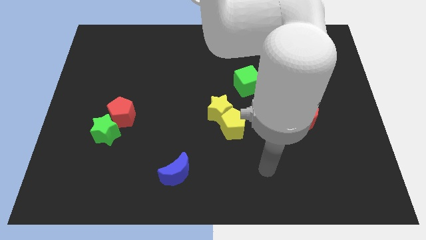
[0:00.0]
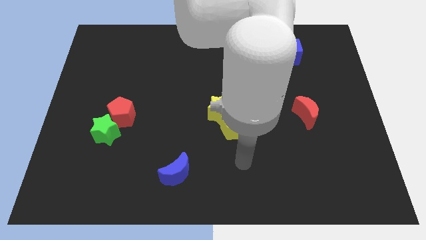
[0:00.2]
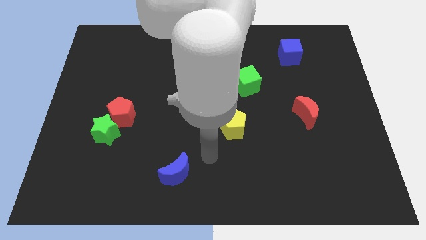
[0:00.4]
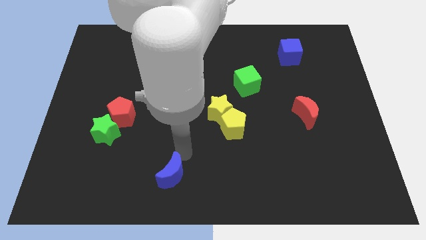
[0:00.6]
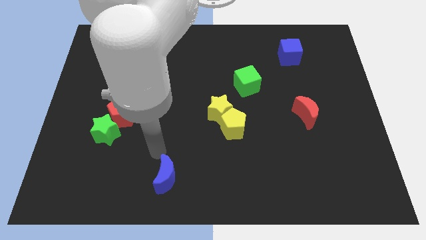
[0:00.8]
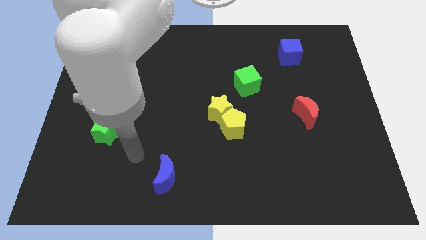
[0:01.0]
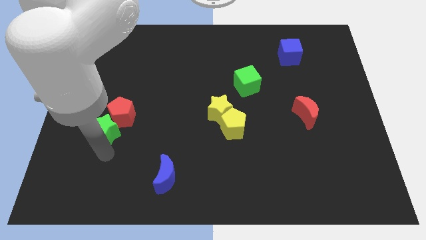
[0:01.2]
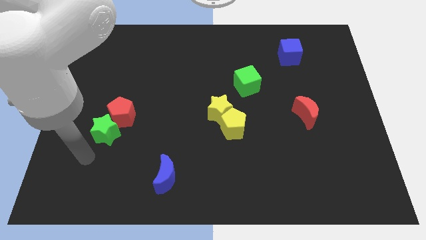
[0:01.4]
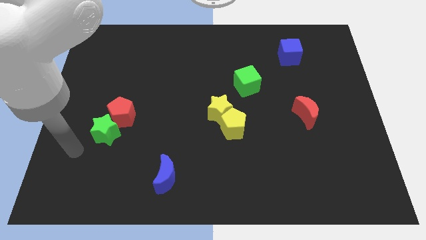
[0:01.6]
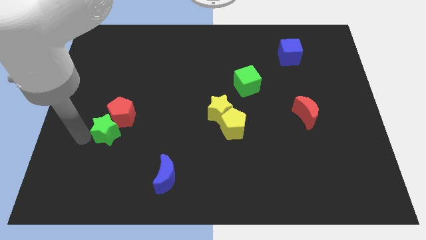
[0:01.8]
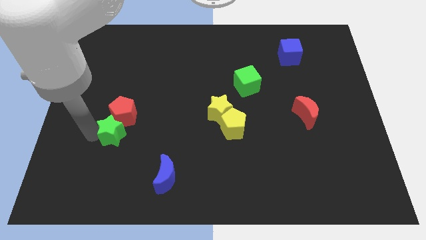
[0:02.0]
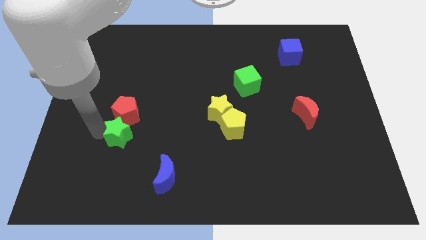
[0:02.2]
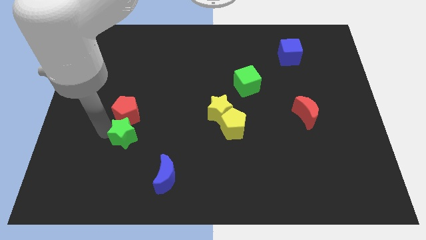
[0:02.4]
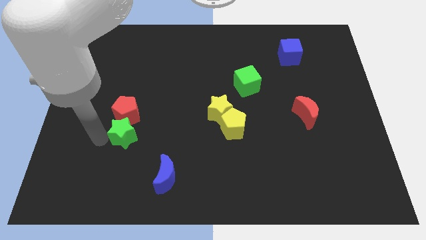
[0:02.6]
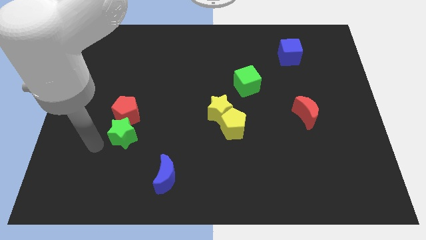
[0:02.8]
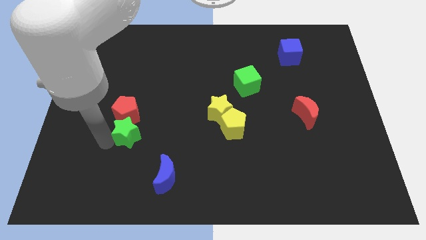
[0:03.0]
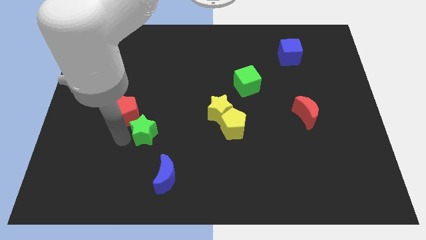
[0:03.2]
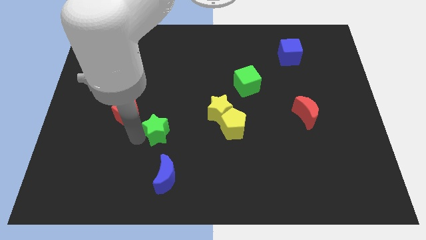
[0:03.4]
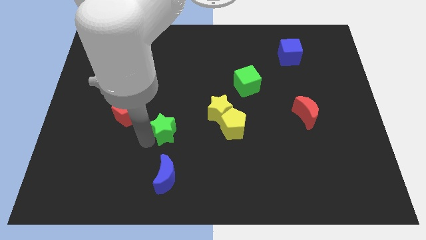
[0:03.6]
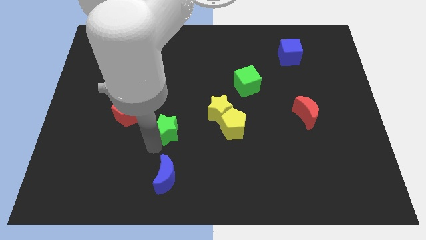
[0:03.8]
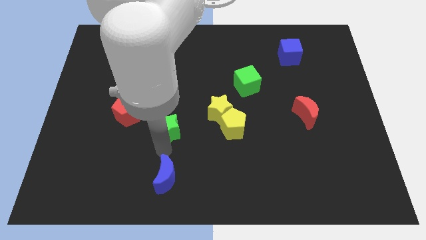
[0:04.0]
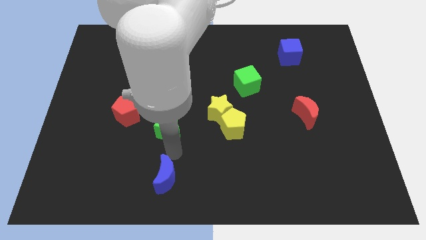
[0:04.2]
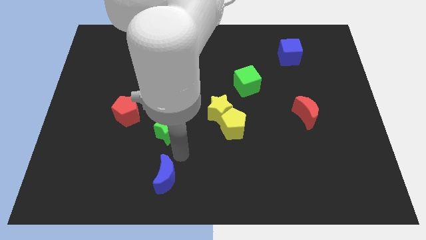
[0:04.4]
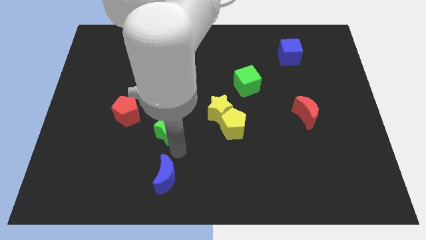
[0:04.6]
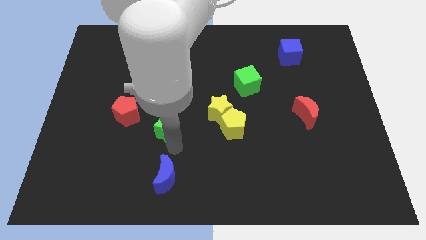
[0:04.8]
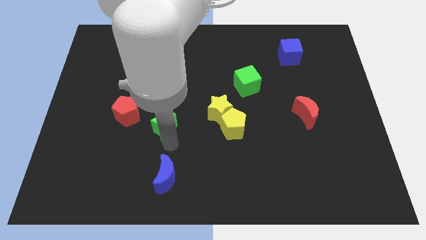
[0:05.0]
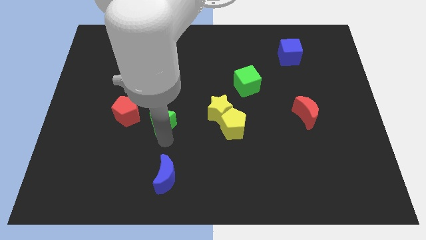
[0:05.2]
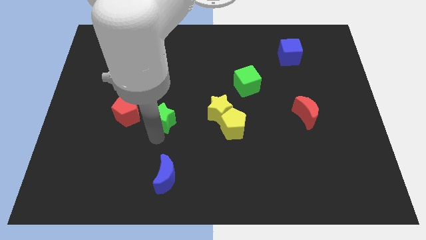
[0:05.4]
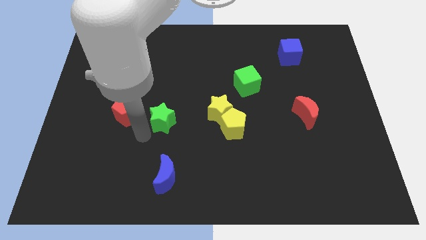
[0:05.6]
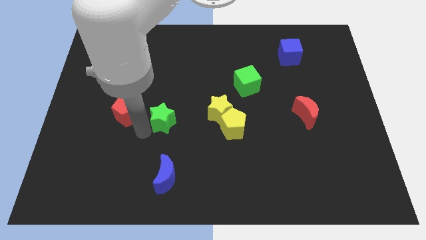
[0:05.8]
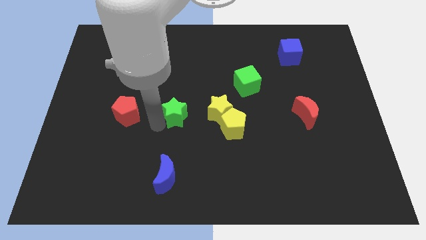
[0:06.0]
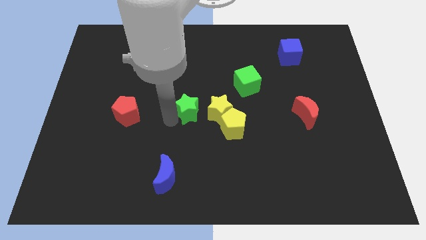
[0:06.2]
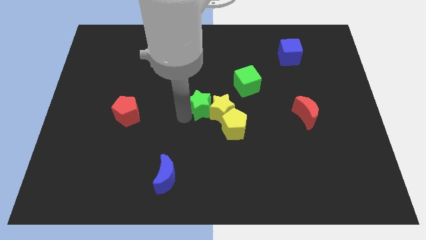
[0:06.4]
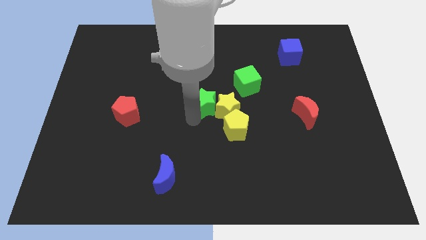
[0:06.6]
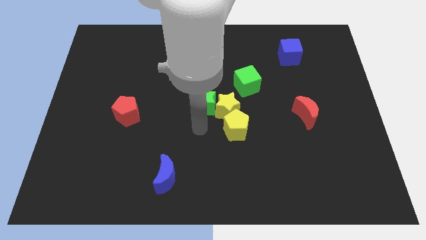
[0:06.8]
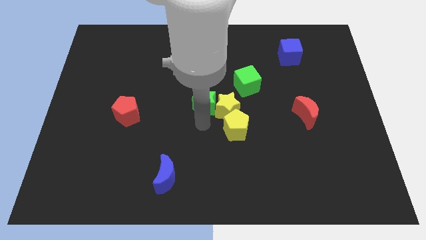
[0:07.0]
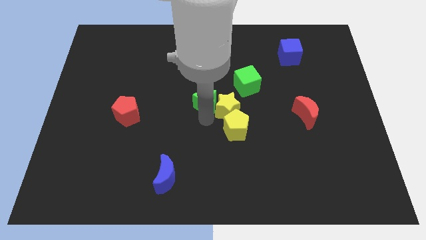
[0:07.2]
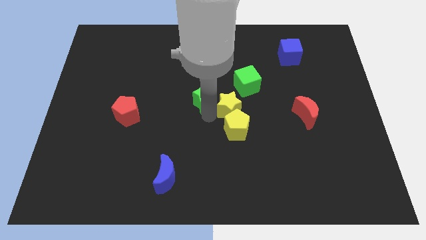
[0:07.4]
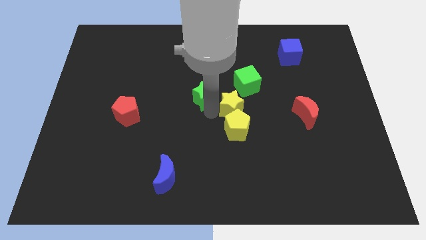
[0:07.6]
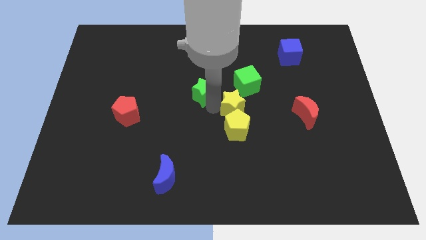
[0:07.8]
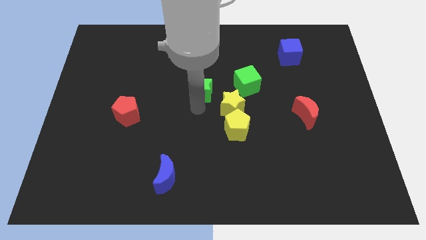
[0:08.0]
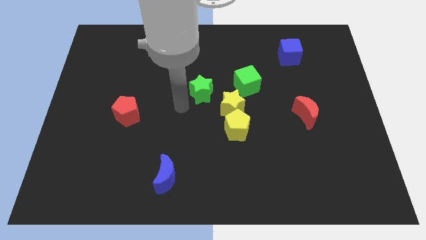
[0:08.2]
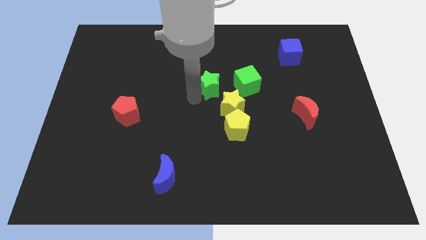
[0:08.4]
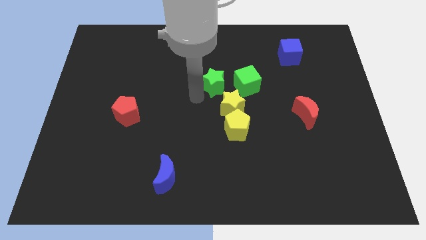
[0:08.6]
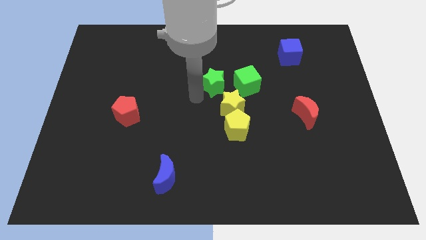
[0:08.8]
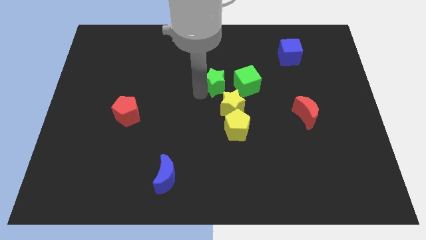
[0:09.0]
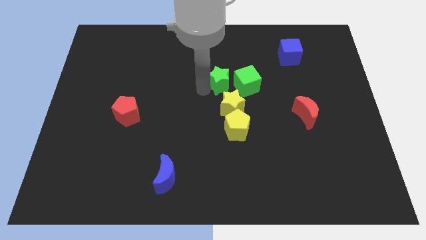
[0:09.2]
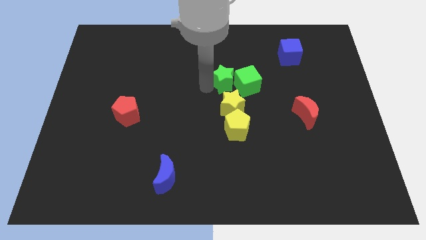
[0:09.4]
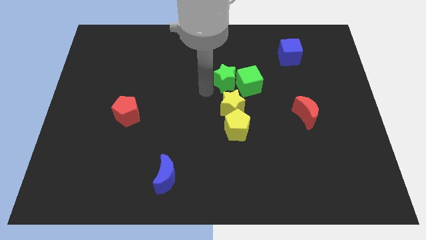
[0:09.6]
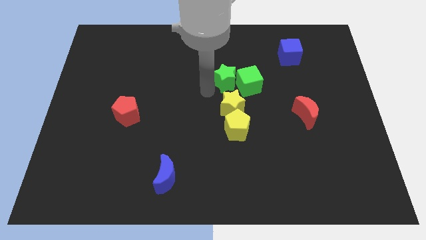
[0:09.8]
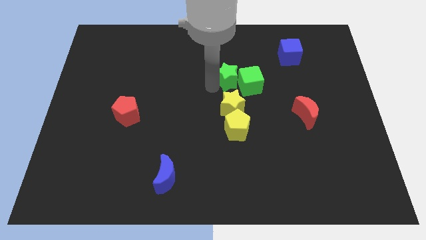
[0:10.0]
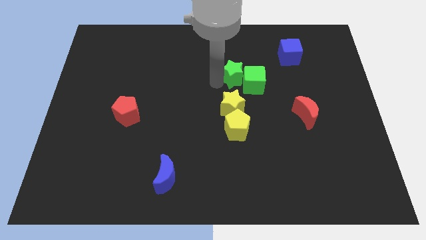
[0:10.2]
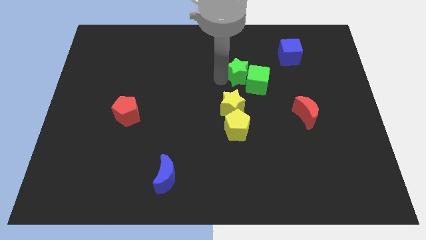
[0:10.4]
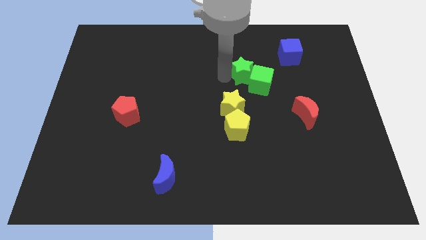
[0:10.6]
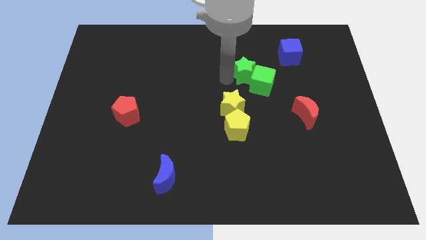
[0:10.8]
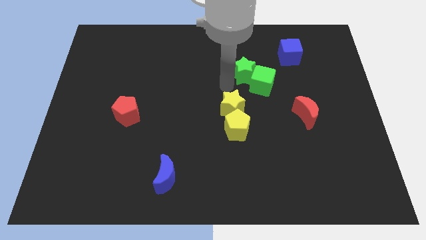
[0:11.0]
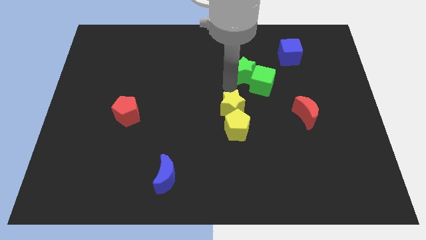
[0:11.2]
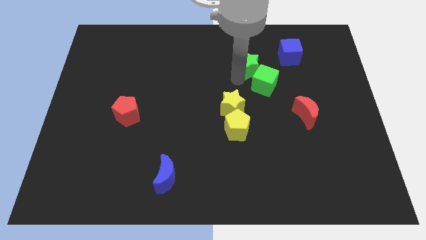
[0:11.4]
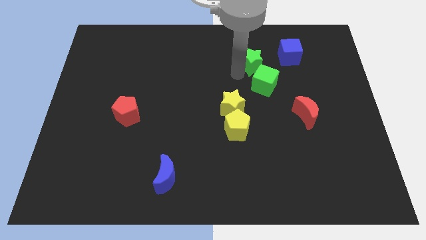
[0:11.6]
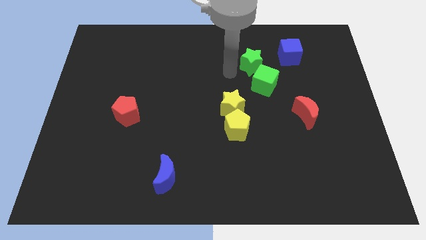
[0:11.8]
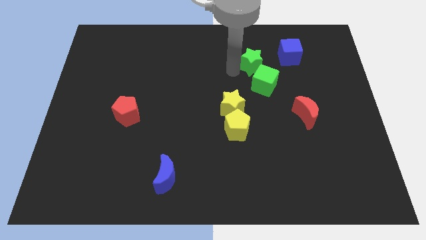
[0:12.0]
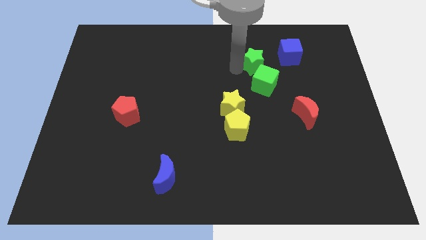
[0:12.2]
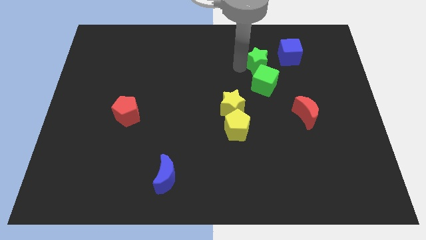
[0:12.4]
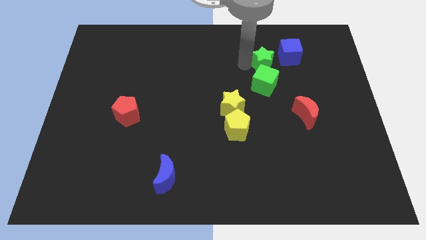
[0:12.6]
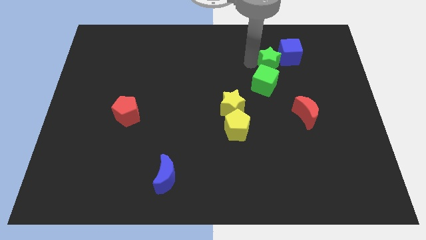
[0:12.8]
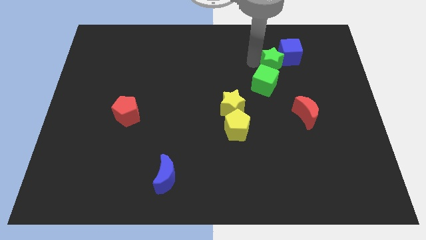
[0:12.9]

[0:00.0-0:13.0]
slide the green star next to the blue cube

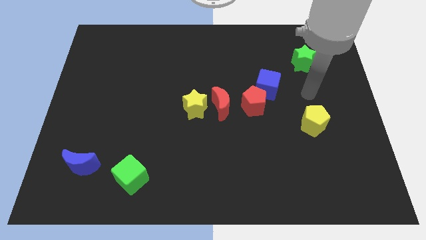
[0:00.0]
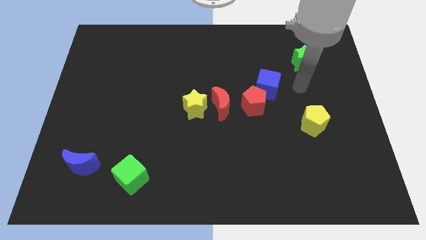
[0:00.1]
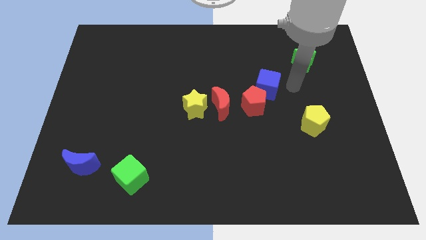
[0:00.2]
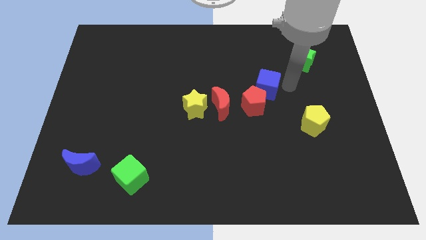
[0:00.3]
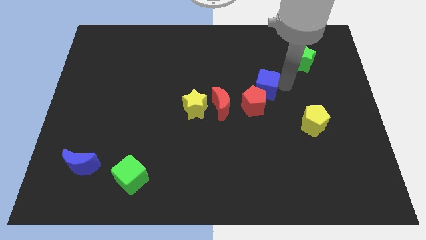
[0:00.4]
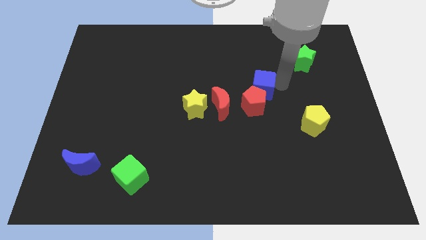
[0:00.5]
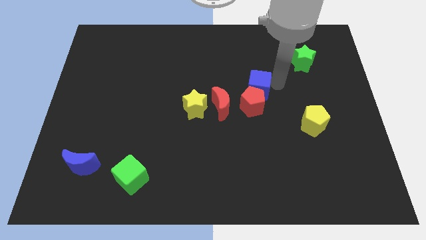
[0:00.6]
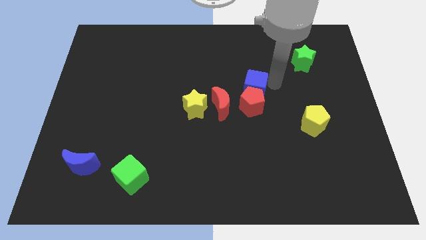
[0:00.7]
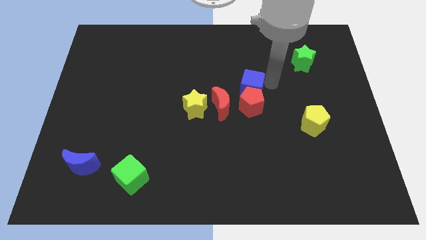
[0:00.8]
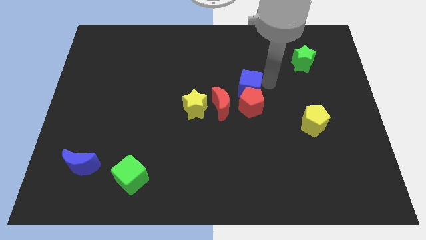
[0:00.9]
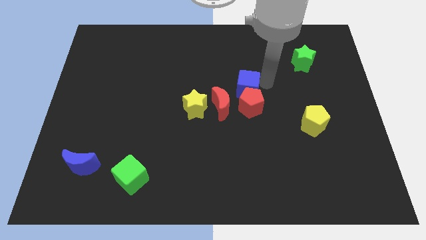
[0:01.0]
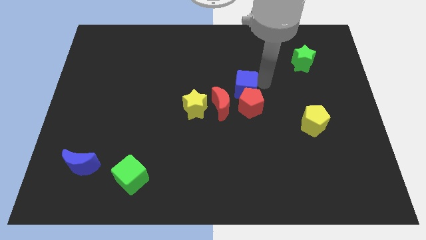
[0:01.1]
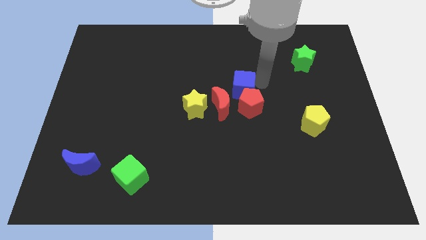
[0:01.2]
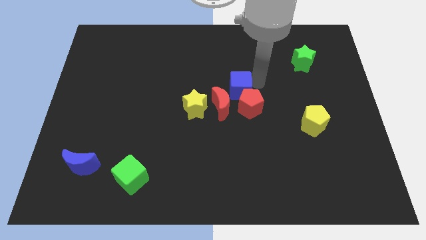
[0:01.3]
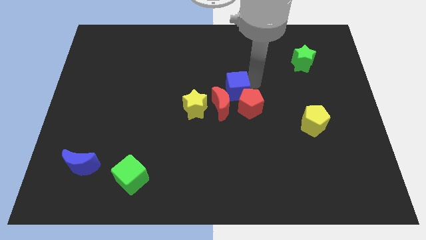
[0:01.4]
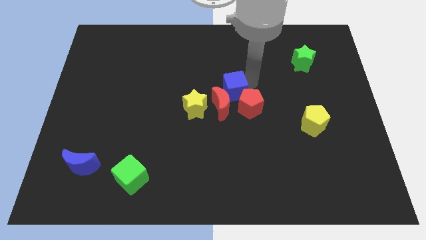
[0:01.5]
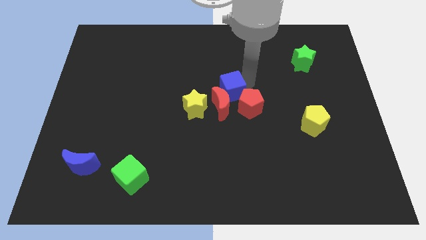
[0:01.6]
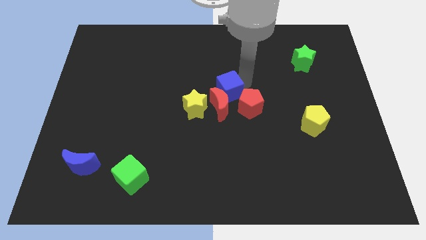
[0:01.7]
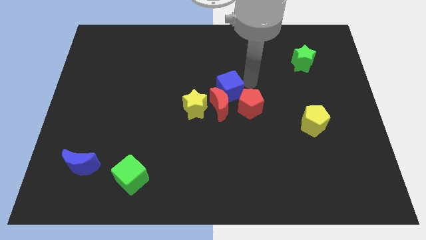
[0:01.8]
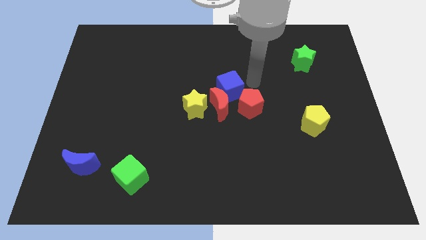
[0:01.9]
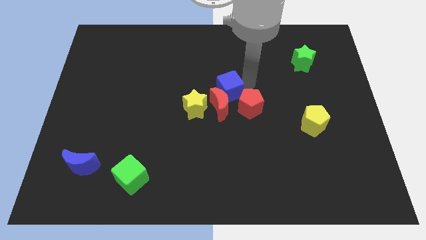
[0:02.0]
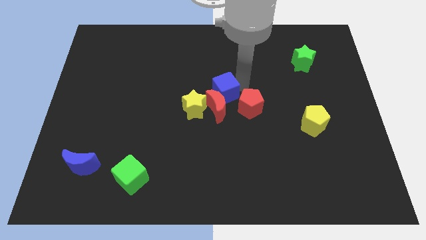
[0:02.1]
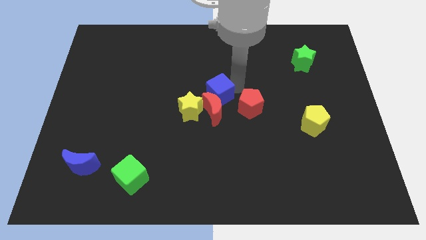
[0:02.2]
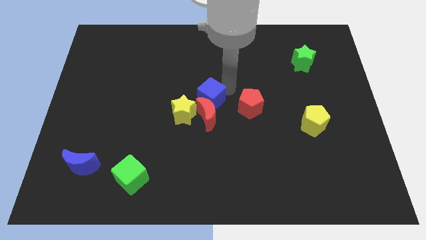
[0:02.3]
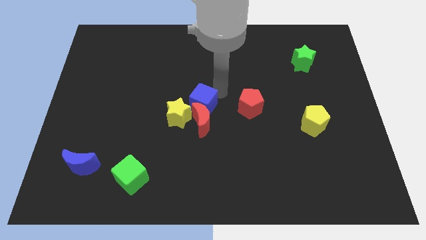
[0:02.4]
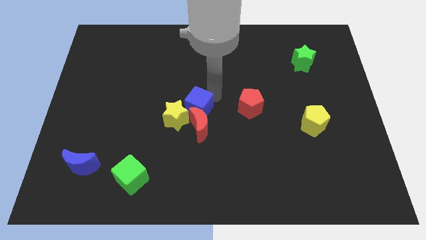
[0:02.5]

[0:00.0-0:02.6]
move the blue cube to the yellow star
